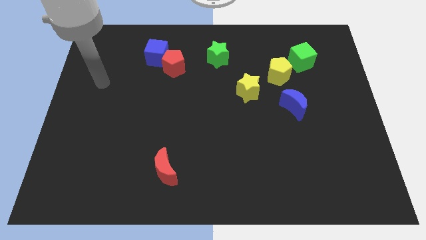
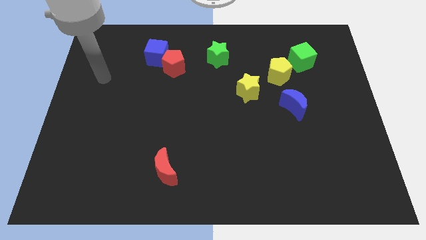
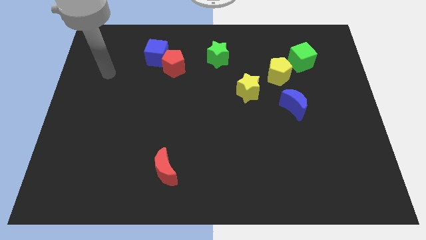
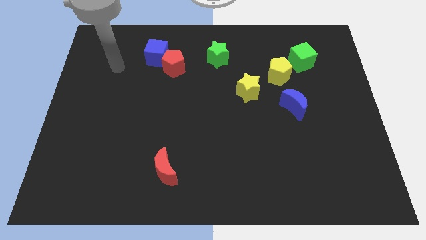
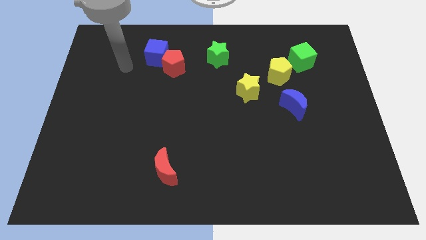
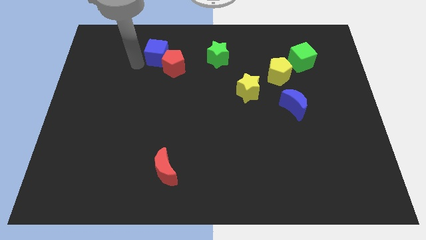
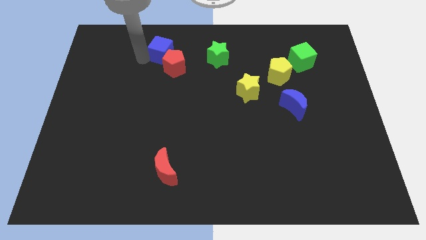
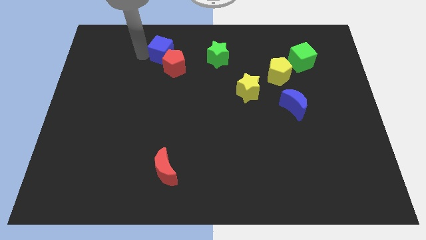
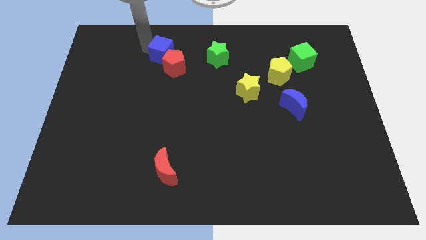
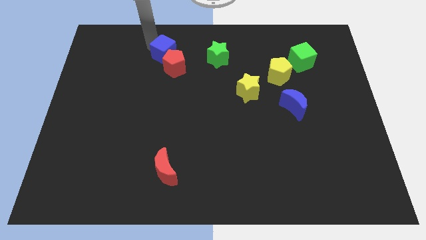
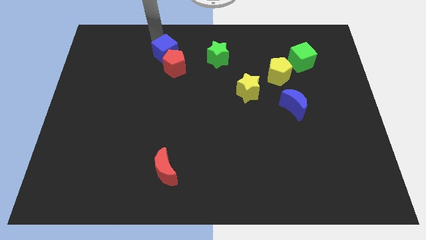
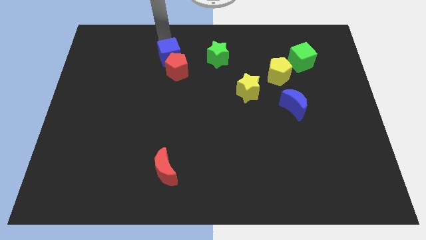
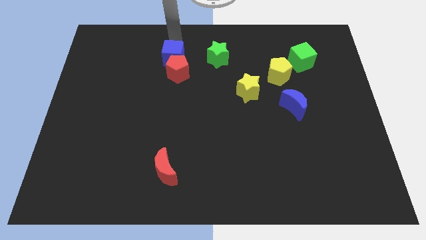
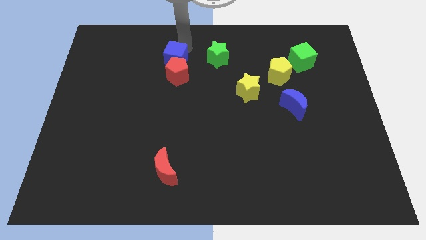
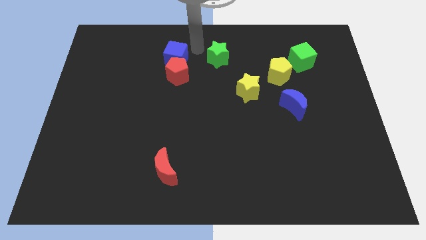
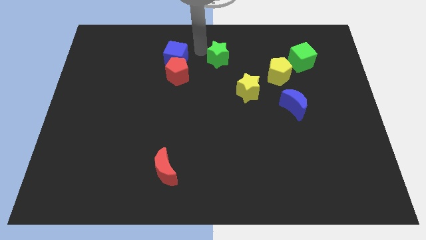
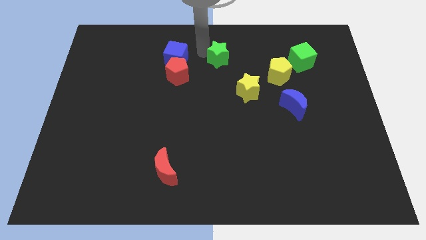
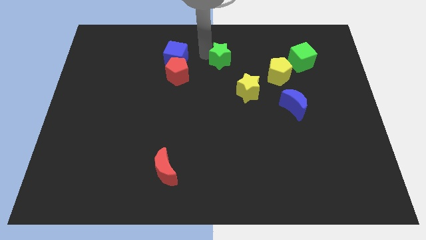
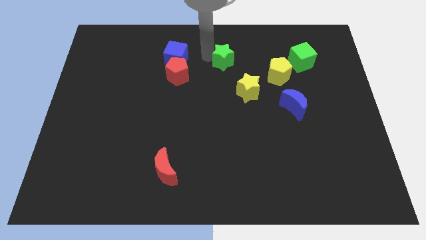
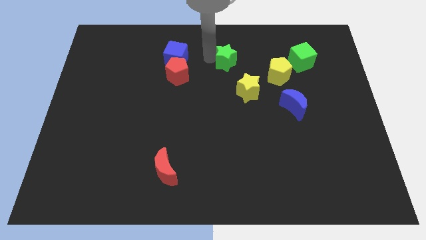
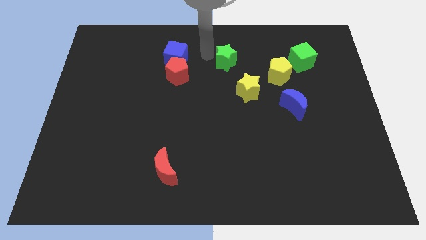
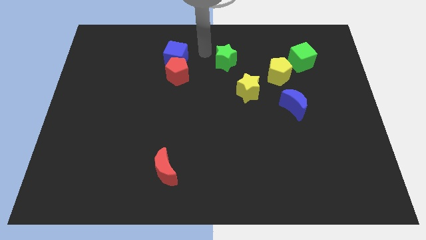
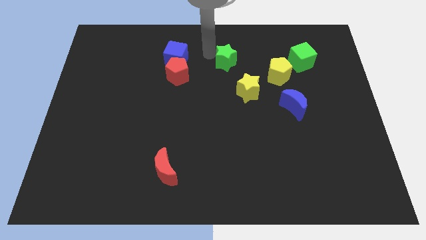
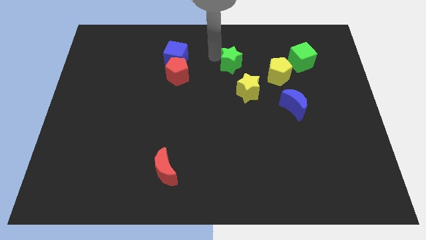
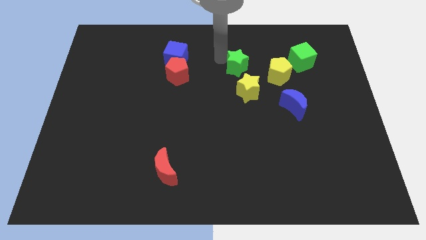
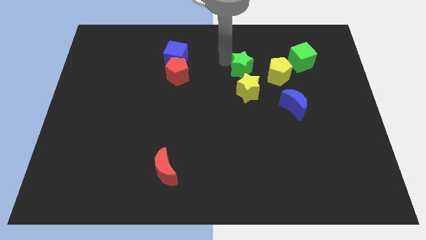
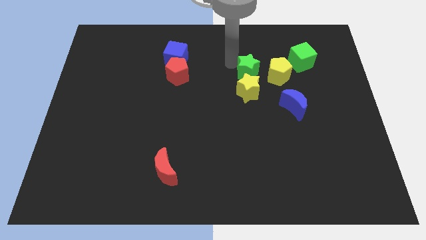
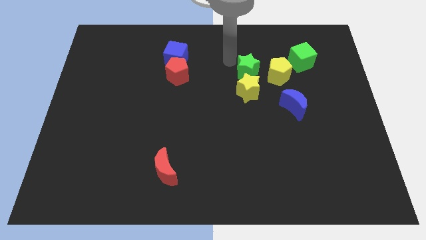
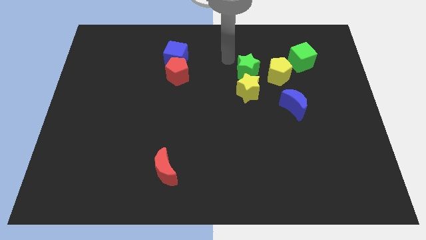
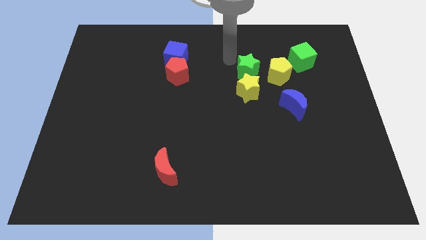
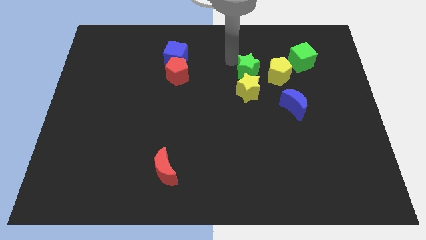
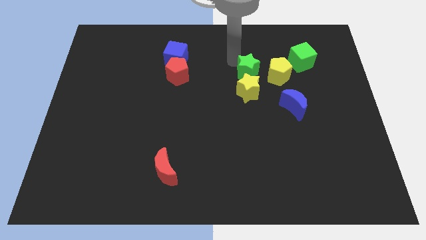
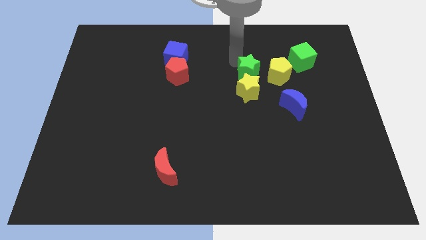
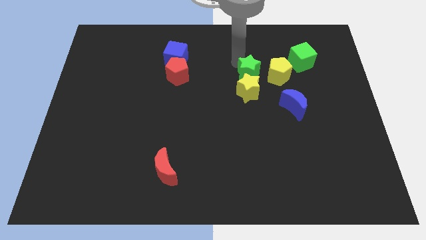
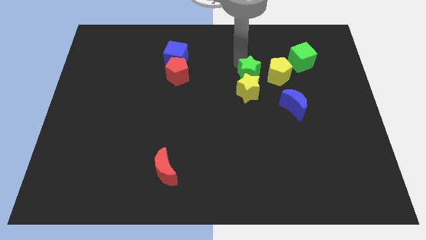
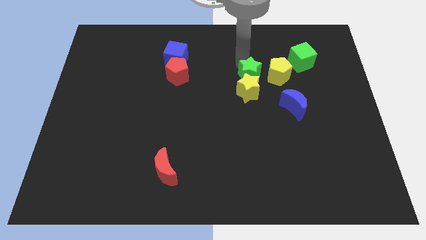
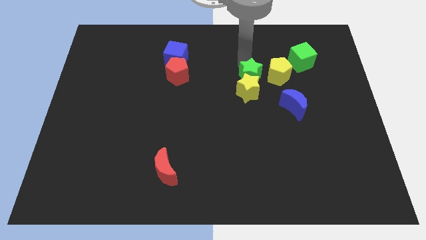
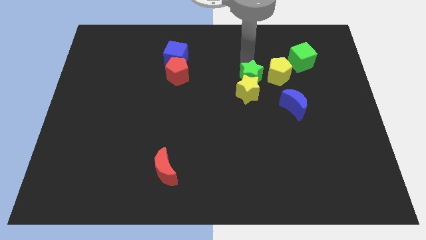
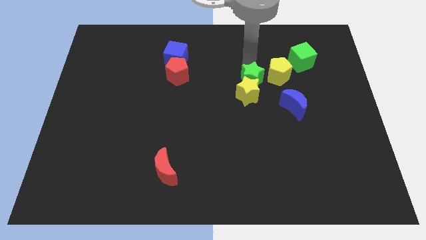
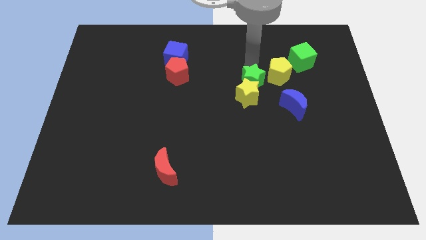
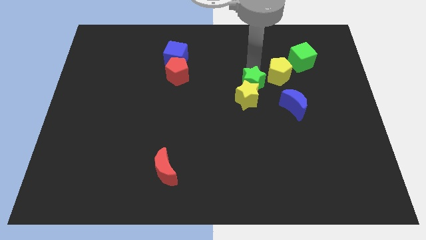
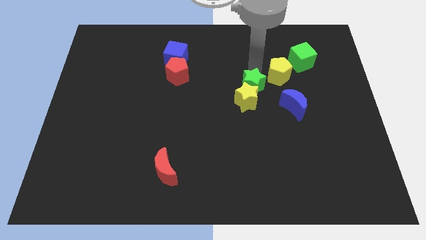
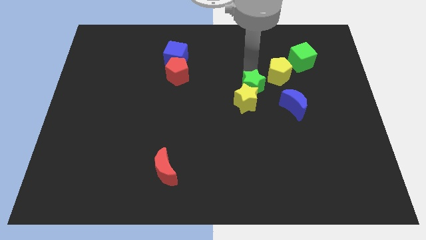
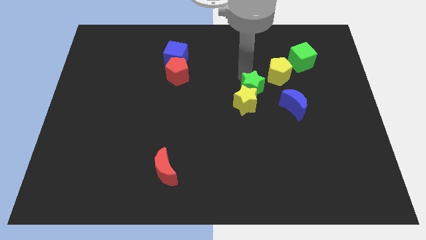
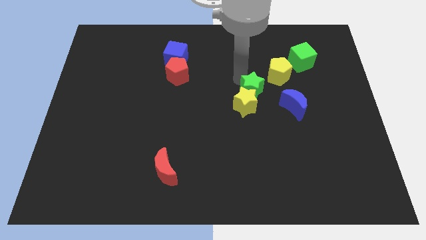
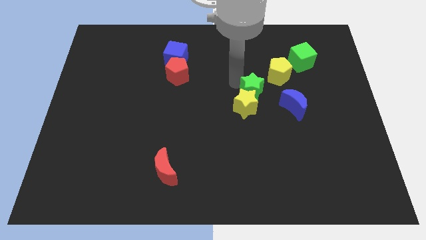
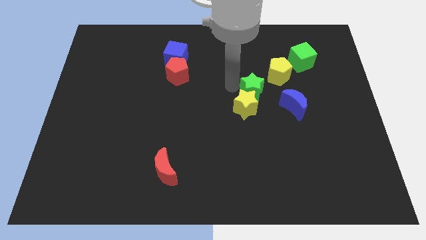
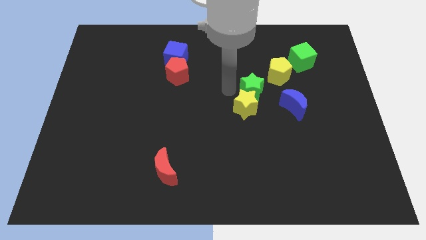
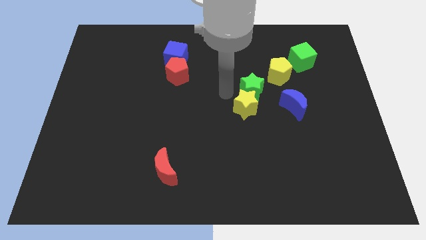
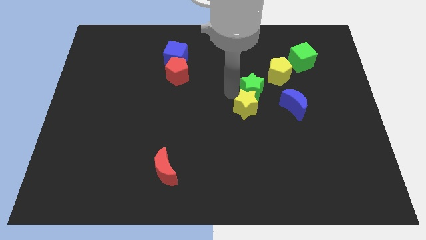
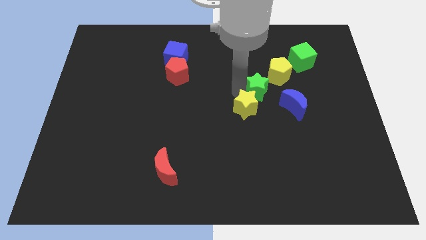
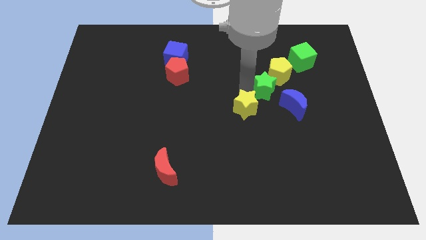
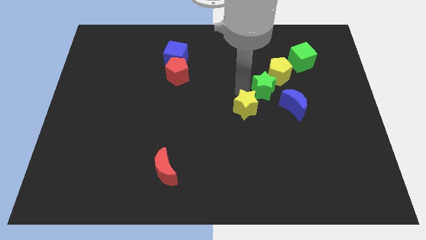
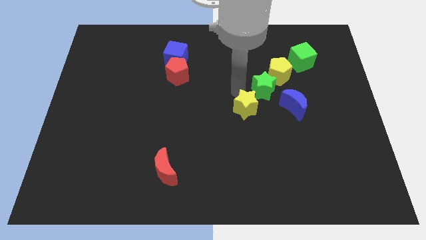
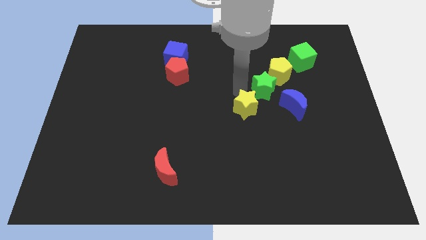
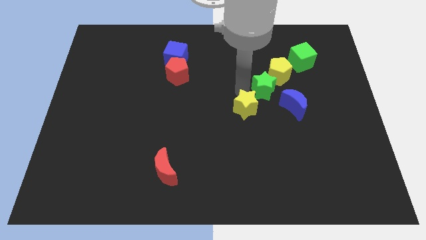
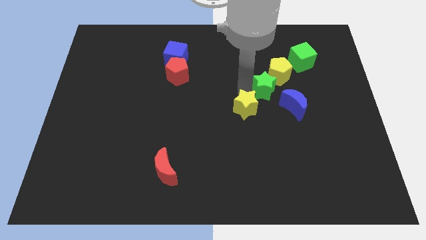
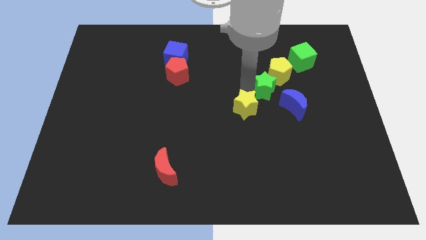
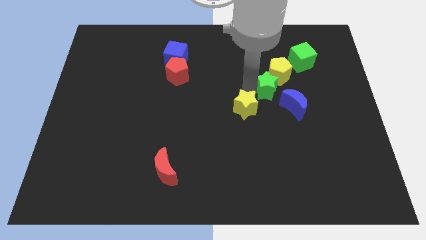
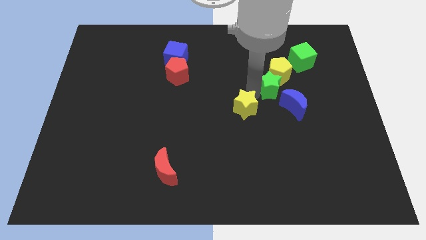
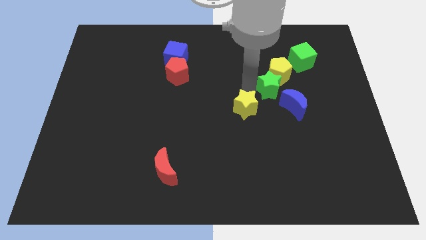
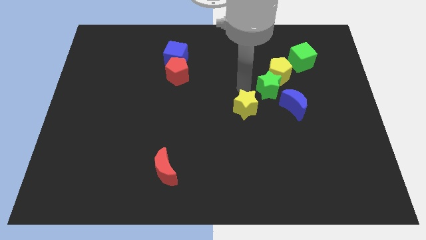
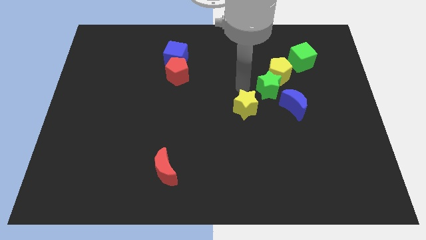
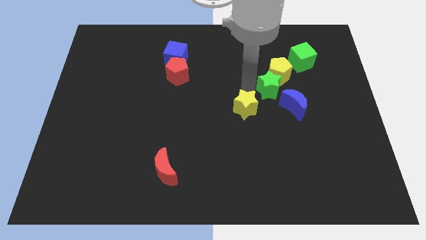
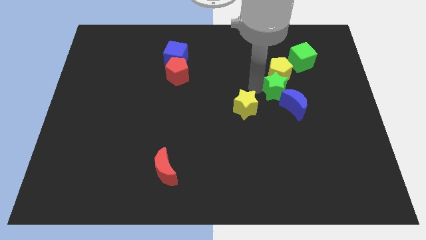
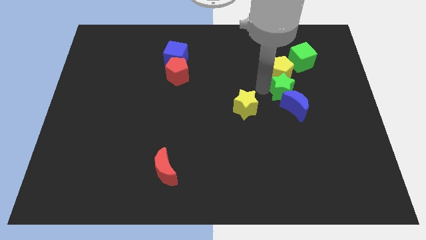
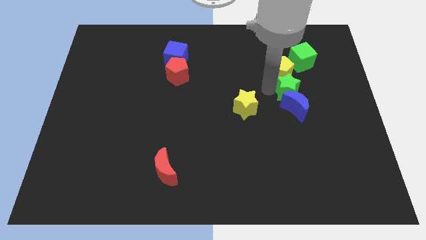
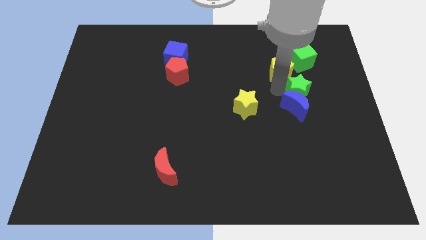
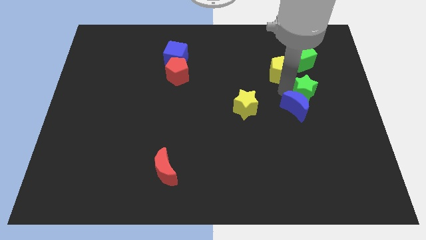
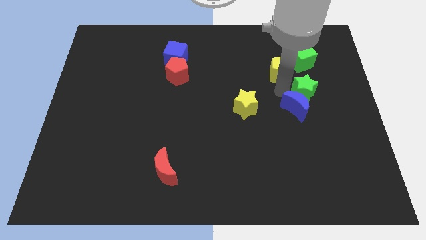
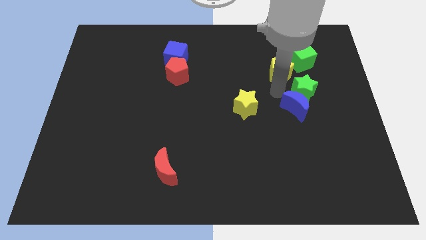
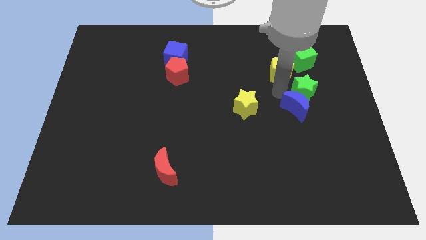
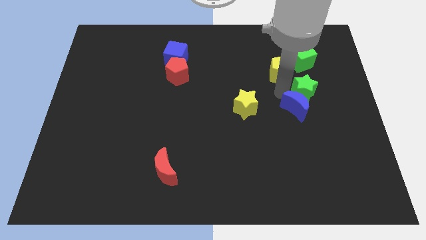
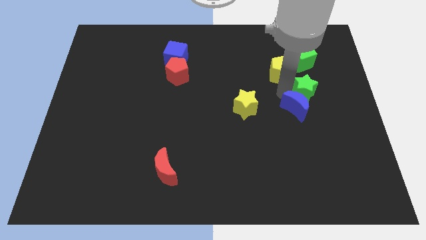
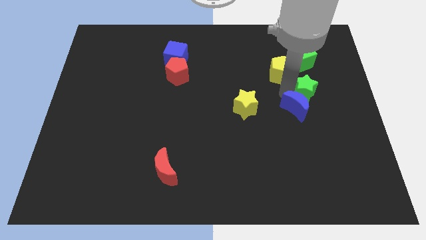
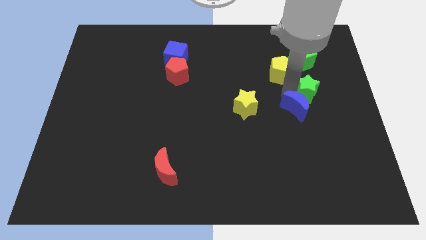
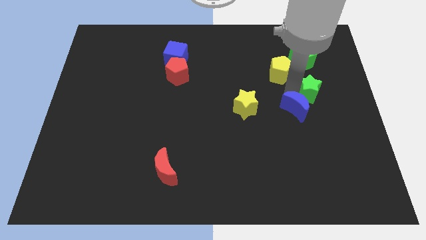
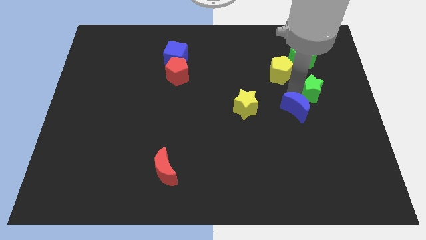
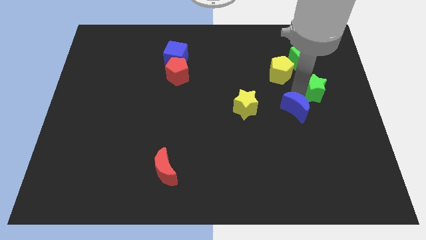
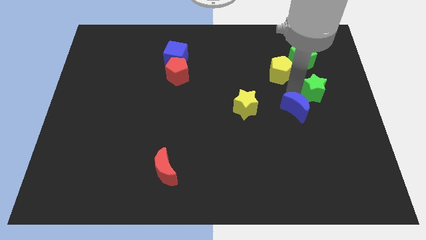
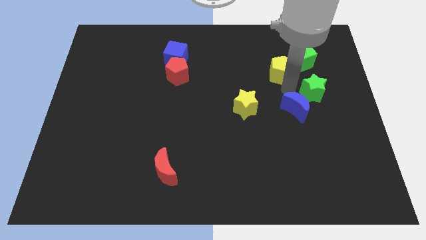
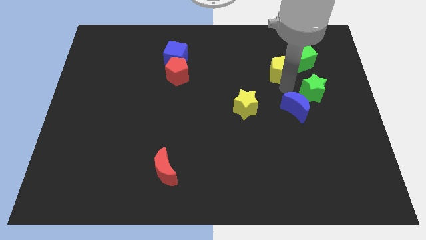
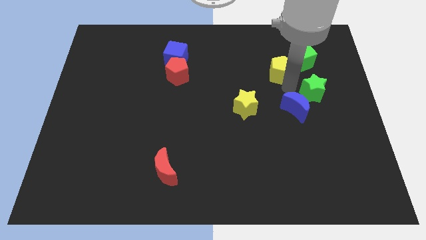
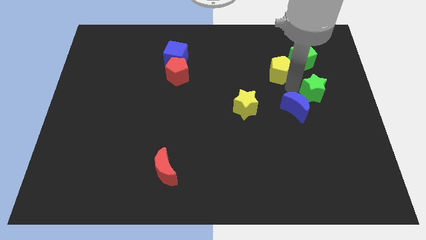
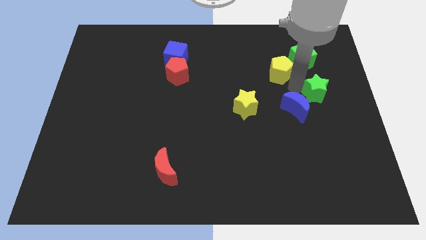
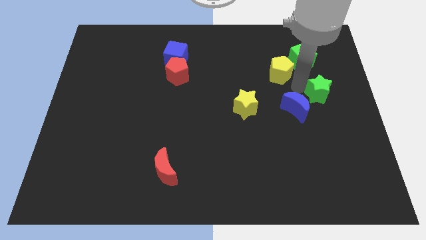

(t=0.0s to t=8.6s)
move the green star to the right side of the board
